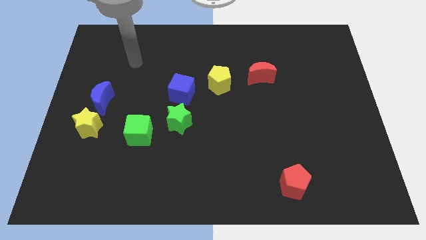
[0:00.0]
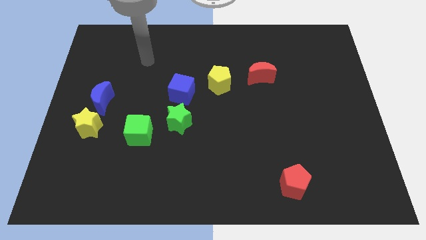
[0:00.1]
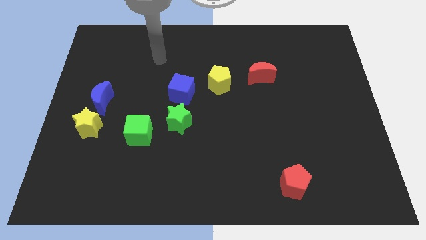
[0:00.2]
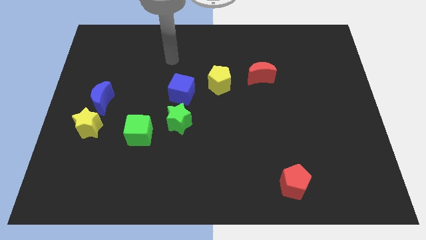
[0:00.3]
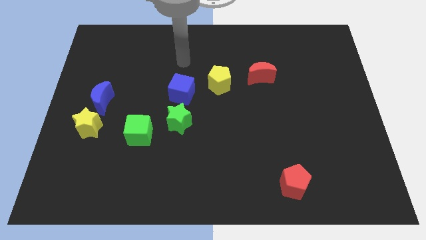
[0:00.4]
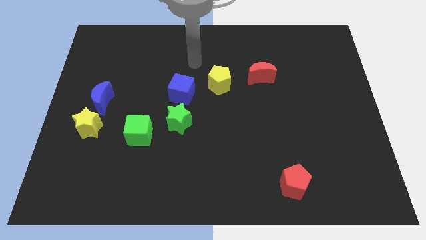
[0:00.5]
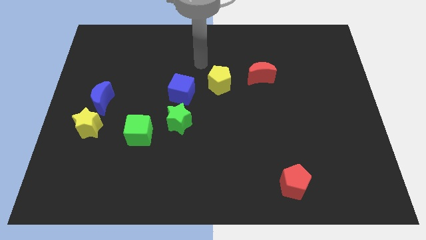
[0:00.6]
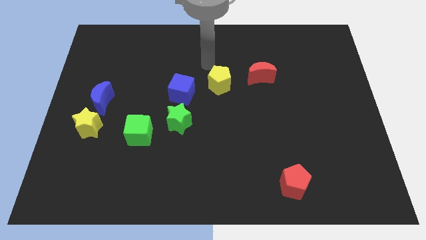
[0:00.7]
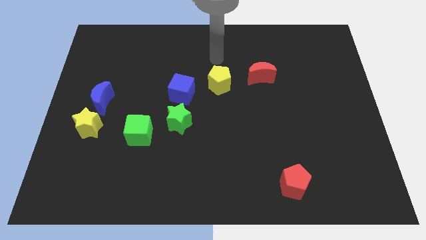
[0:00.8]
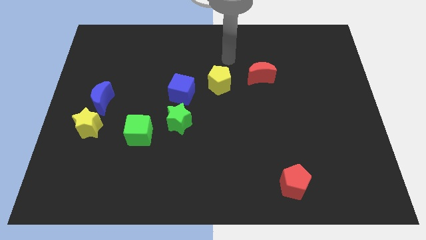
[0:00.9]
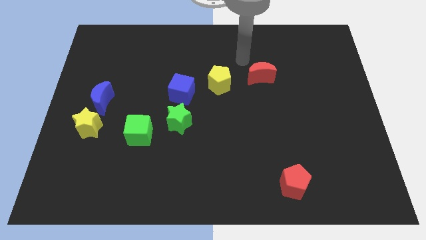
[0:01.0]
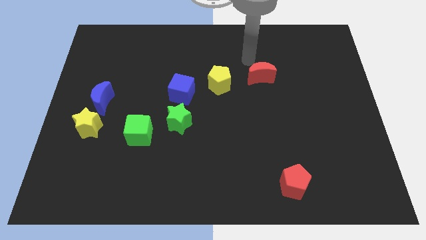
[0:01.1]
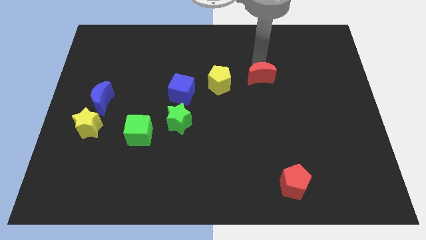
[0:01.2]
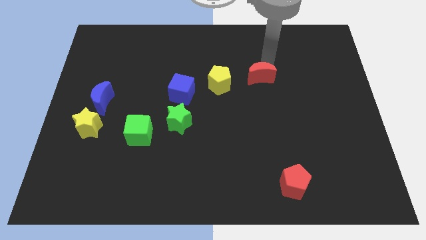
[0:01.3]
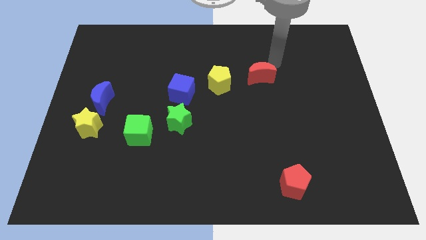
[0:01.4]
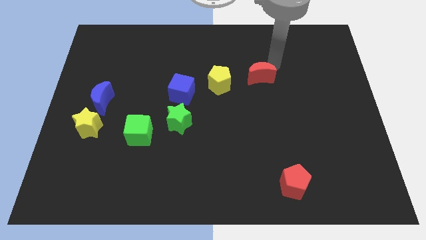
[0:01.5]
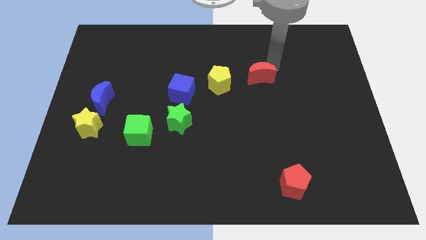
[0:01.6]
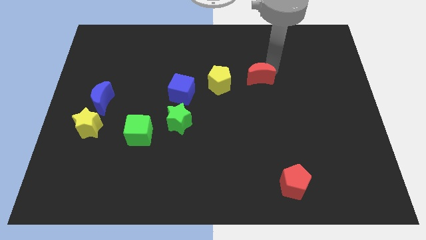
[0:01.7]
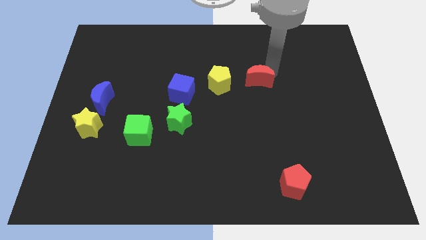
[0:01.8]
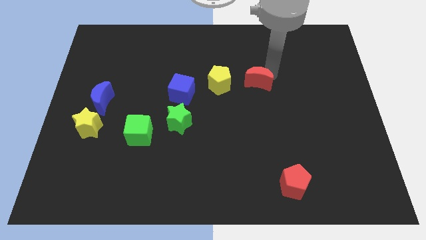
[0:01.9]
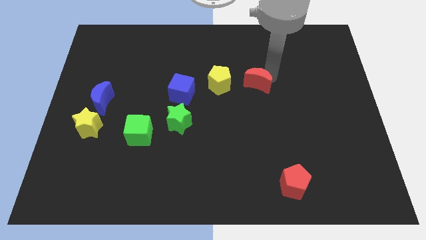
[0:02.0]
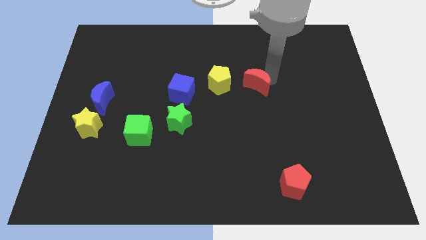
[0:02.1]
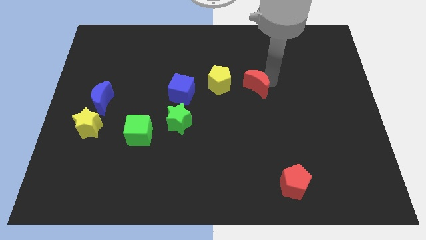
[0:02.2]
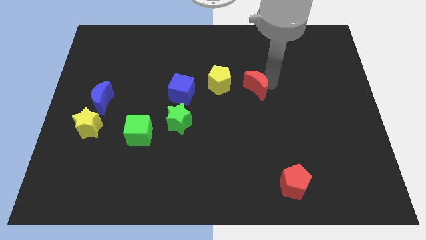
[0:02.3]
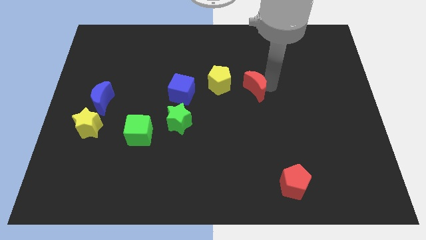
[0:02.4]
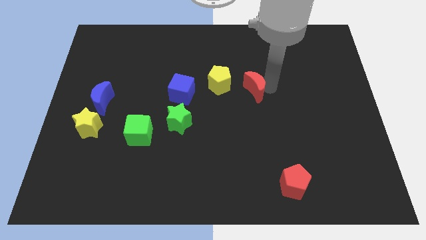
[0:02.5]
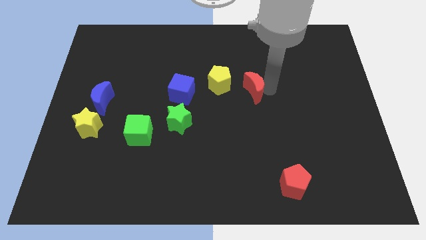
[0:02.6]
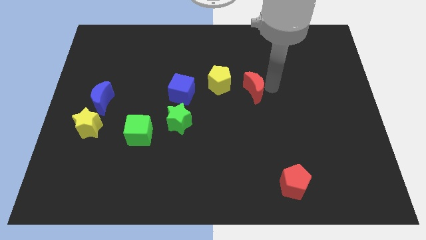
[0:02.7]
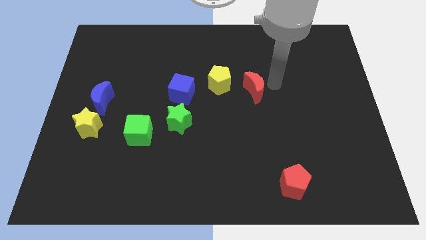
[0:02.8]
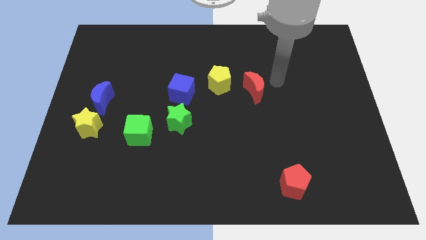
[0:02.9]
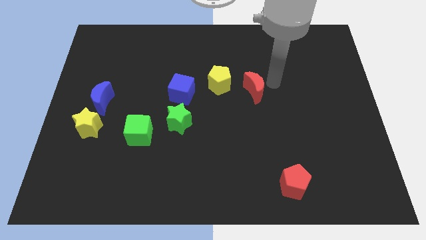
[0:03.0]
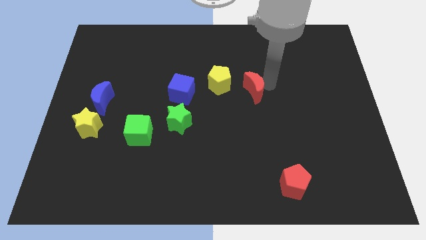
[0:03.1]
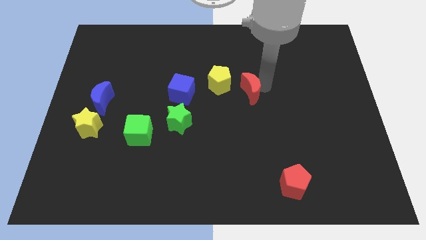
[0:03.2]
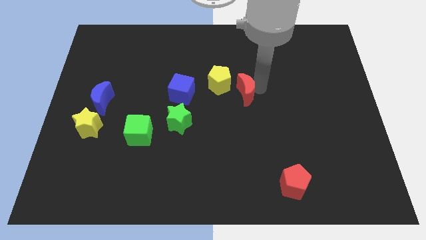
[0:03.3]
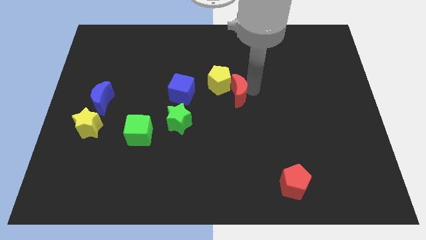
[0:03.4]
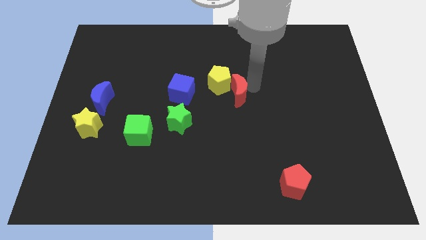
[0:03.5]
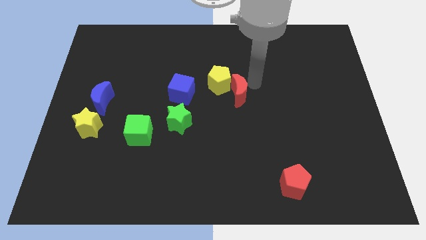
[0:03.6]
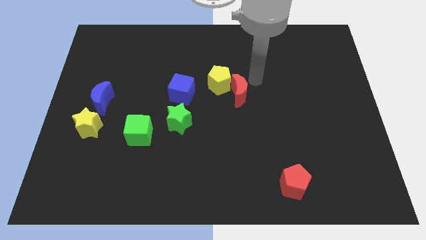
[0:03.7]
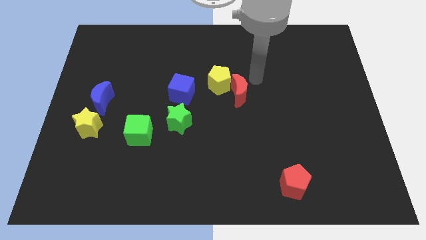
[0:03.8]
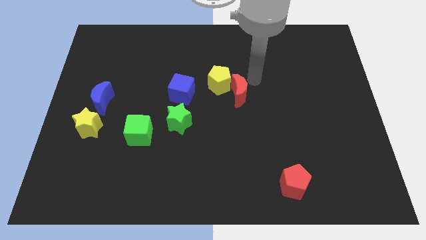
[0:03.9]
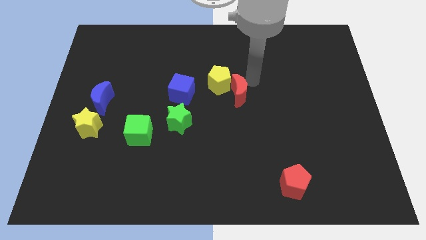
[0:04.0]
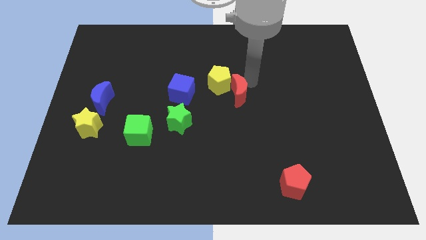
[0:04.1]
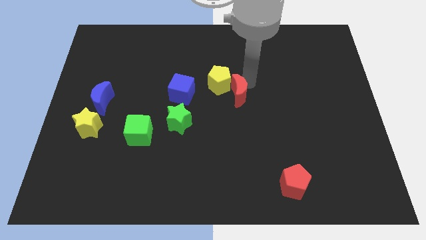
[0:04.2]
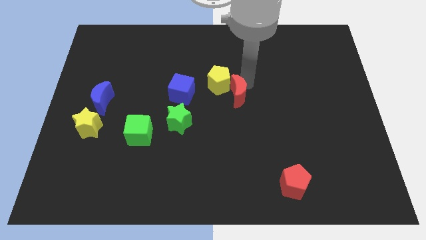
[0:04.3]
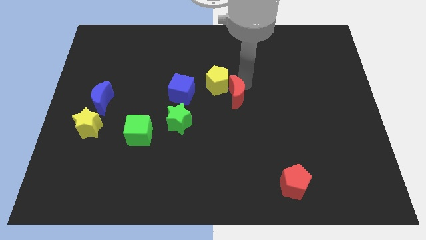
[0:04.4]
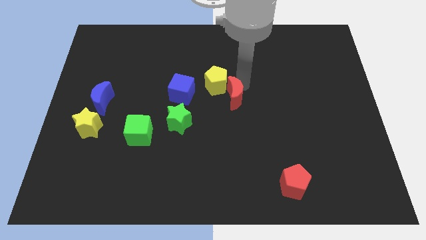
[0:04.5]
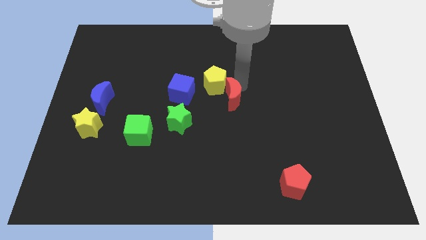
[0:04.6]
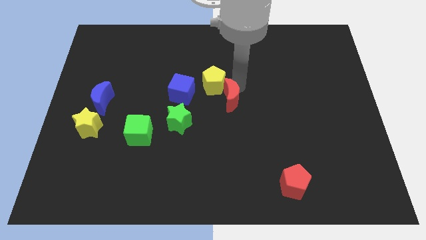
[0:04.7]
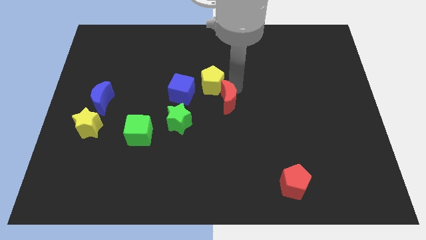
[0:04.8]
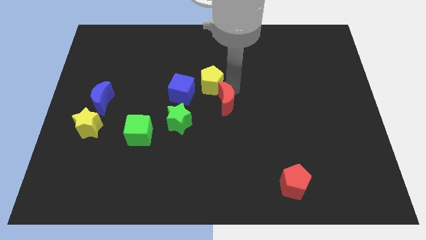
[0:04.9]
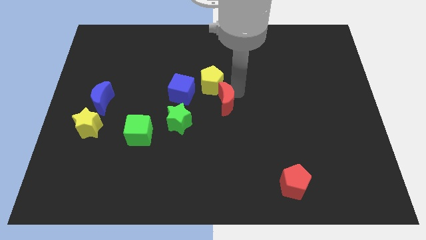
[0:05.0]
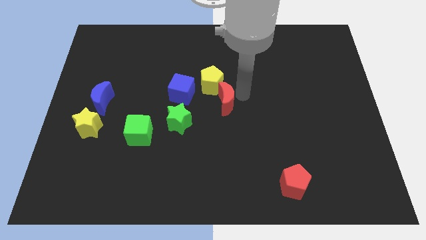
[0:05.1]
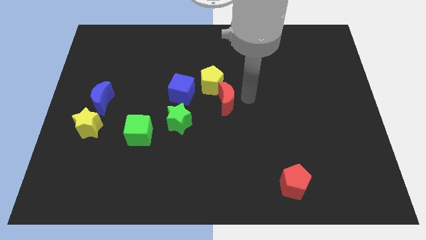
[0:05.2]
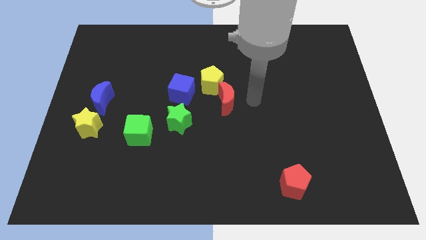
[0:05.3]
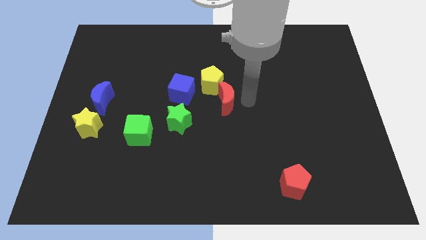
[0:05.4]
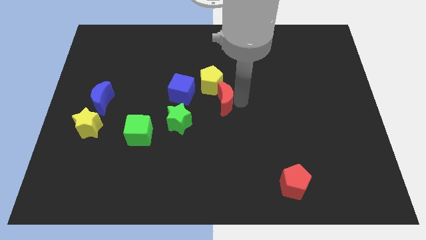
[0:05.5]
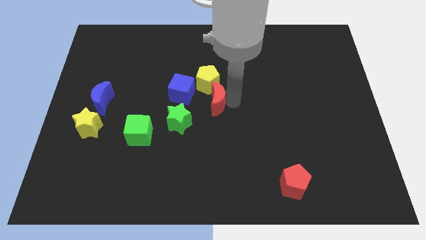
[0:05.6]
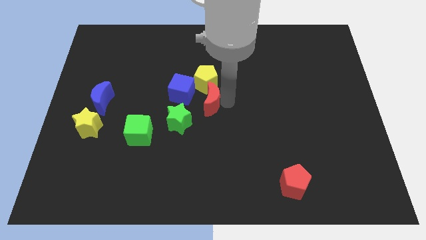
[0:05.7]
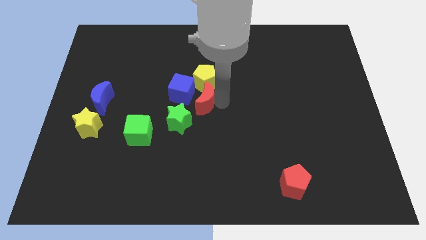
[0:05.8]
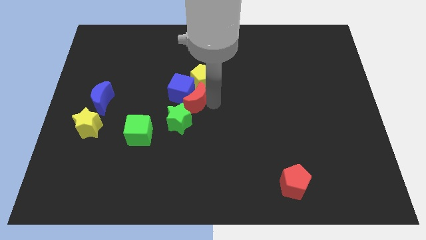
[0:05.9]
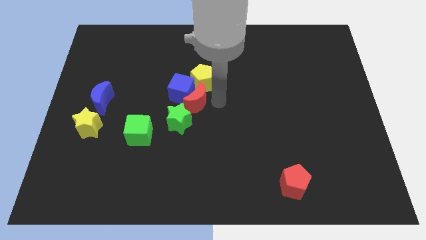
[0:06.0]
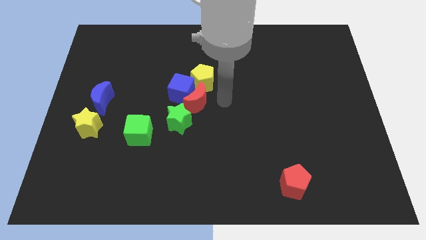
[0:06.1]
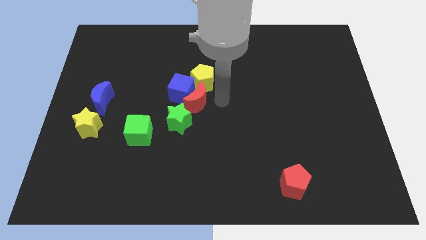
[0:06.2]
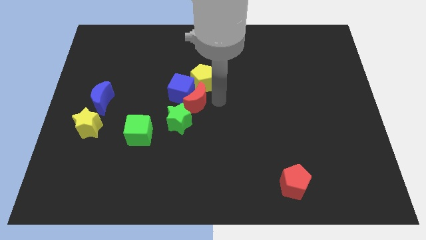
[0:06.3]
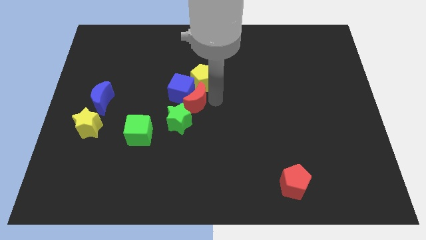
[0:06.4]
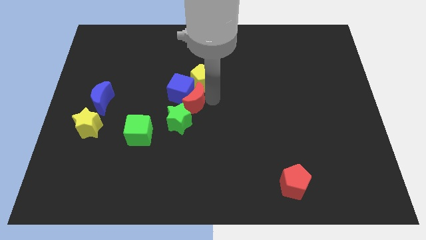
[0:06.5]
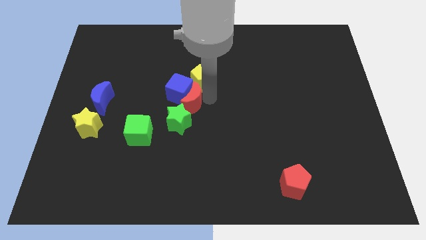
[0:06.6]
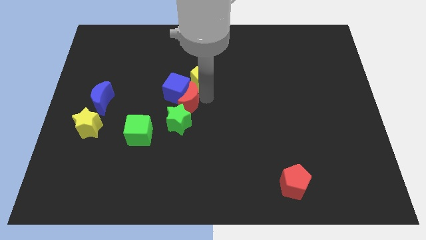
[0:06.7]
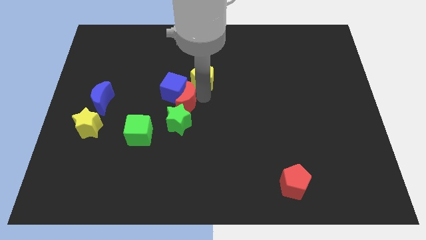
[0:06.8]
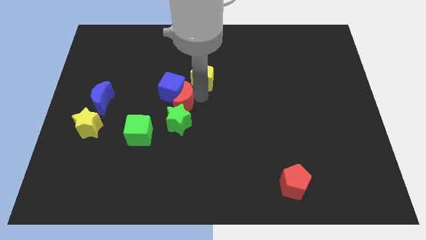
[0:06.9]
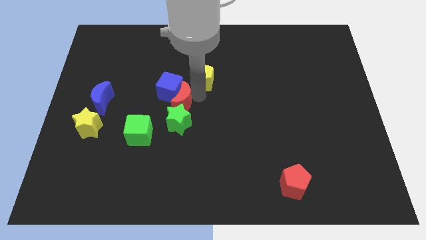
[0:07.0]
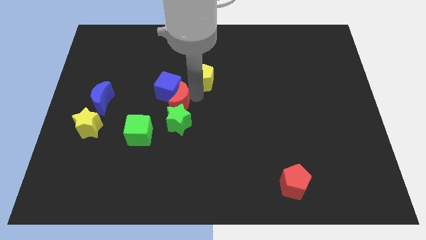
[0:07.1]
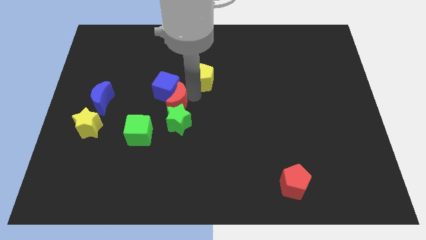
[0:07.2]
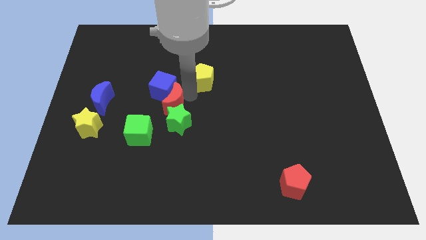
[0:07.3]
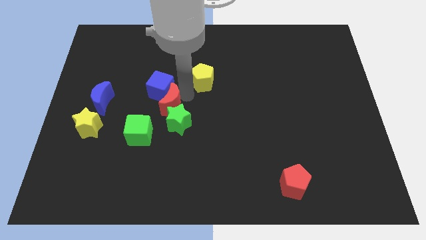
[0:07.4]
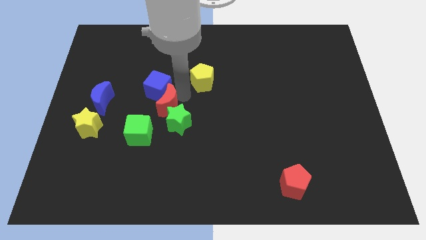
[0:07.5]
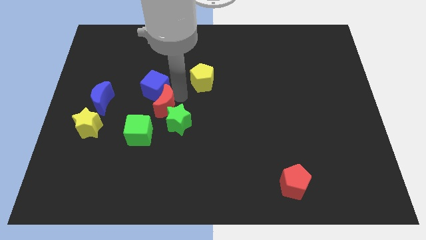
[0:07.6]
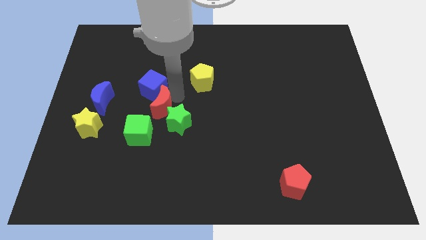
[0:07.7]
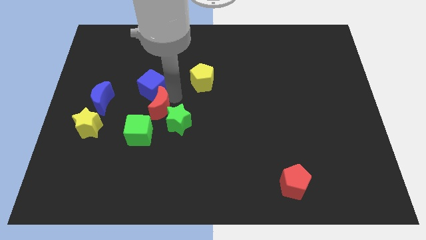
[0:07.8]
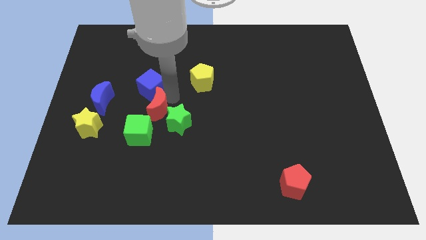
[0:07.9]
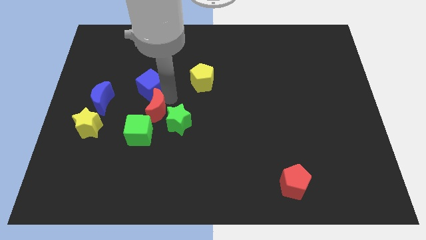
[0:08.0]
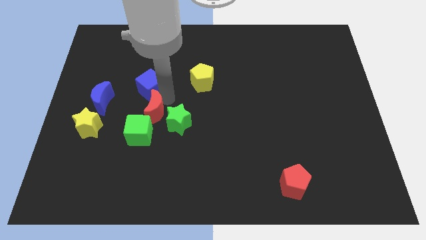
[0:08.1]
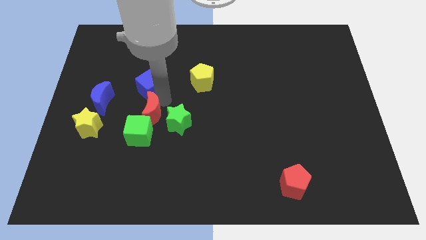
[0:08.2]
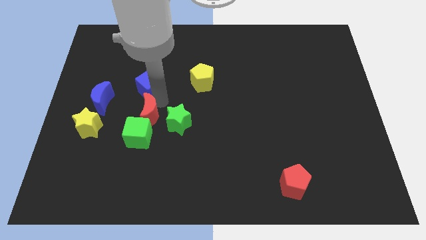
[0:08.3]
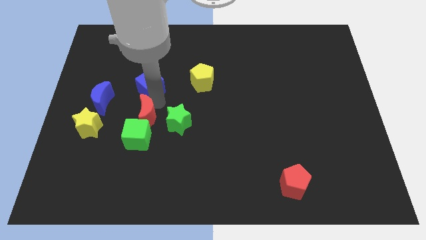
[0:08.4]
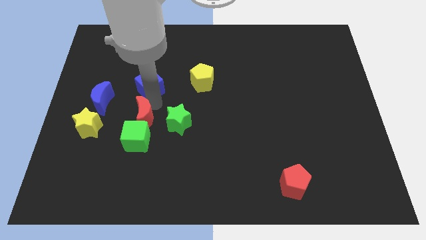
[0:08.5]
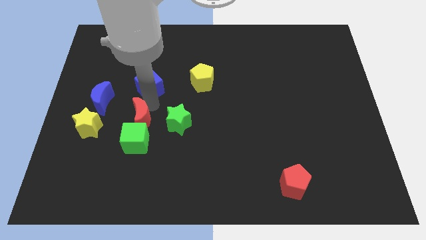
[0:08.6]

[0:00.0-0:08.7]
put the red moon diagonally down and to the right of the blue moon
